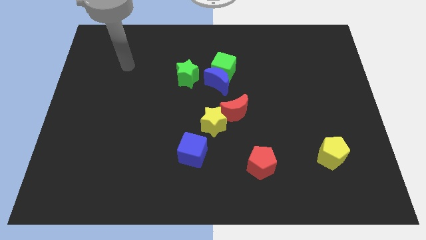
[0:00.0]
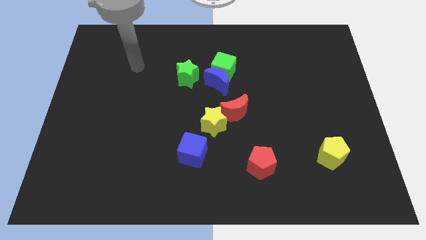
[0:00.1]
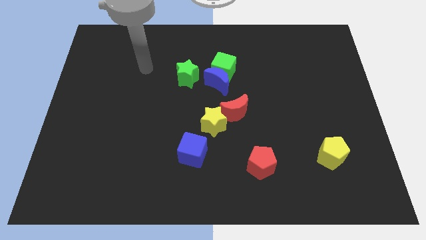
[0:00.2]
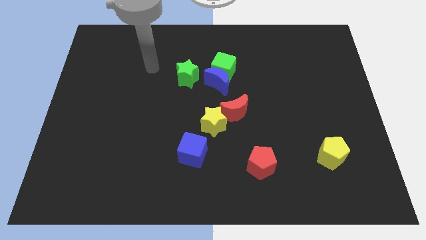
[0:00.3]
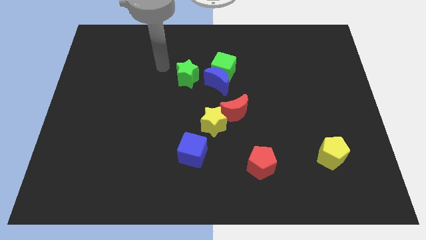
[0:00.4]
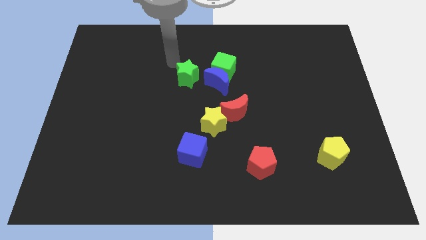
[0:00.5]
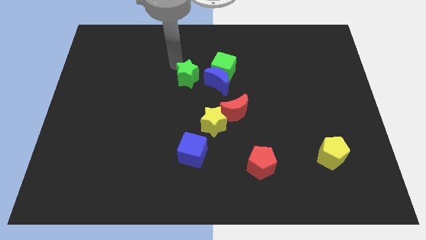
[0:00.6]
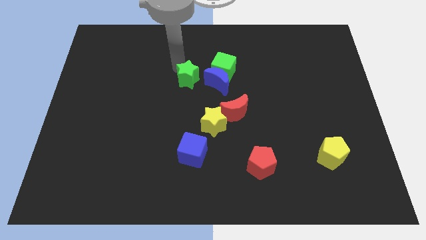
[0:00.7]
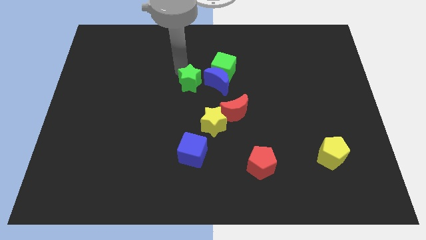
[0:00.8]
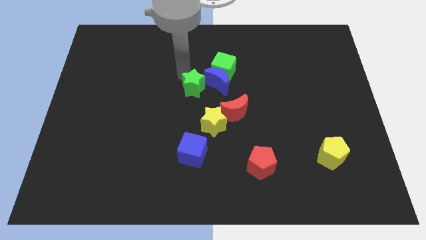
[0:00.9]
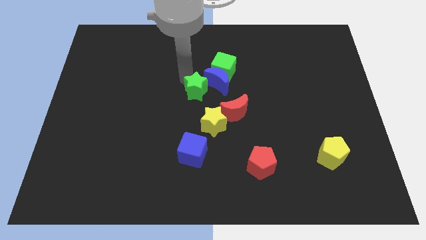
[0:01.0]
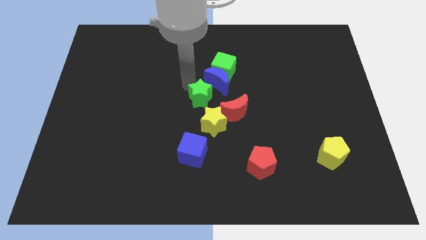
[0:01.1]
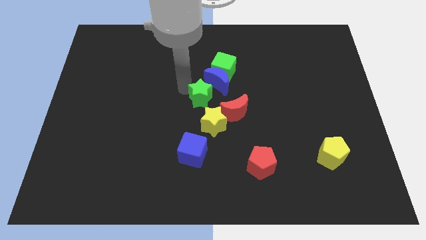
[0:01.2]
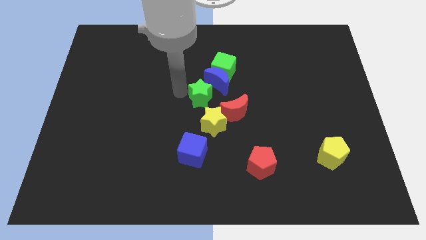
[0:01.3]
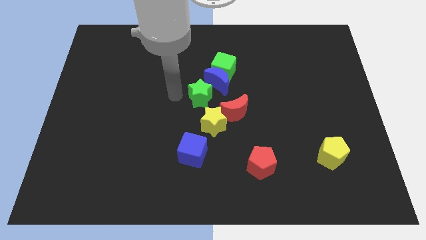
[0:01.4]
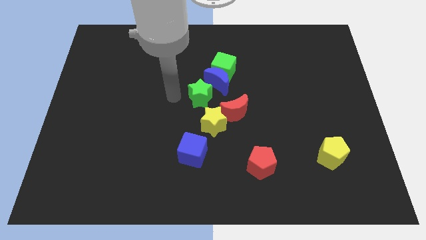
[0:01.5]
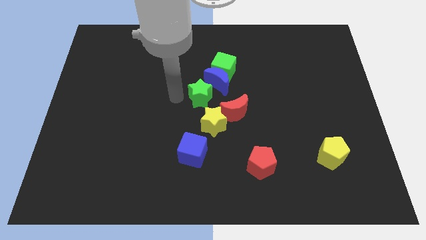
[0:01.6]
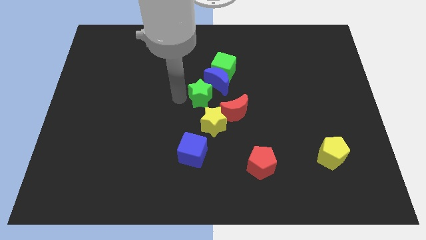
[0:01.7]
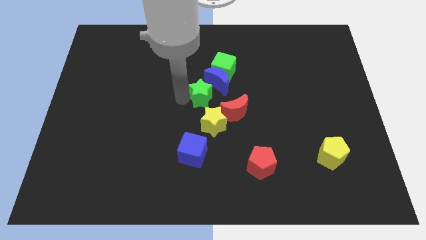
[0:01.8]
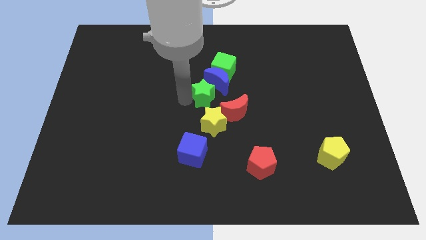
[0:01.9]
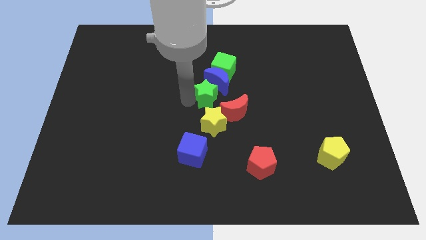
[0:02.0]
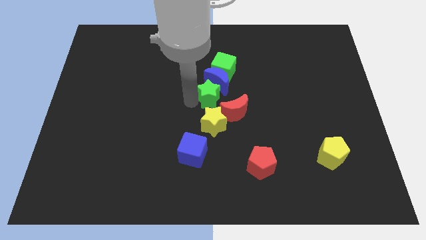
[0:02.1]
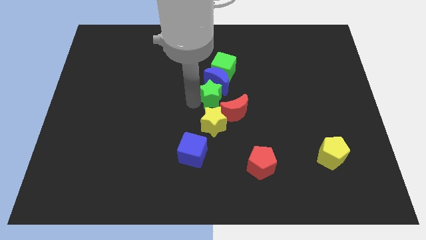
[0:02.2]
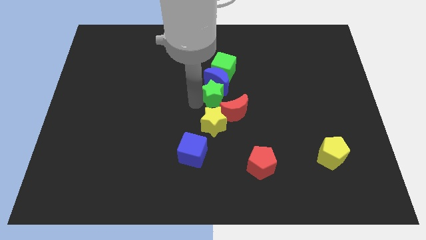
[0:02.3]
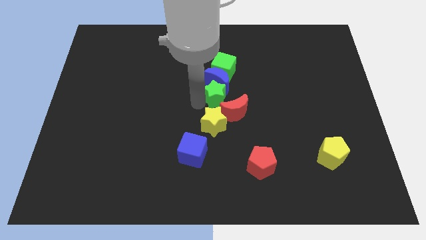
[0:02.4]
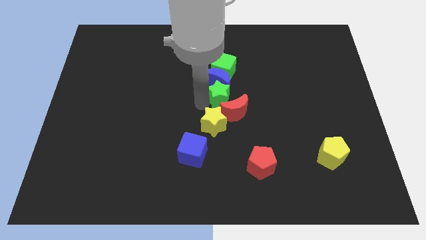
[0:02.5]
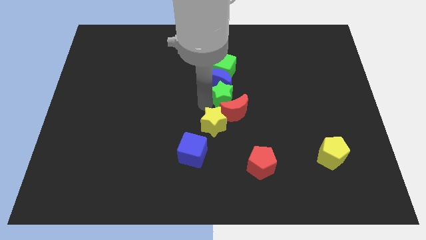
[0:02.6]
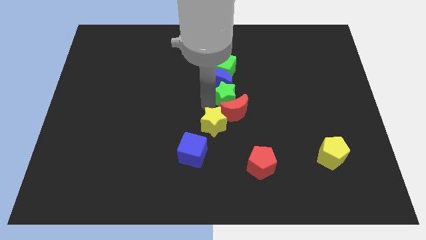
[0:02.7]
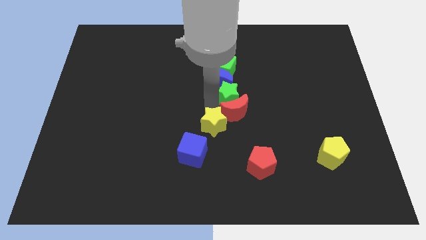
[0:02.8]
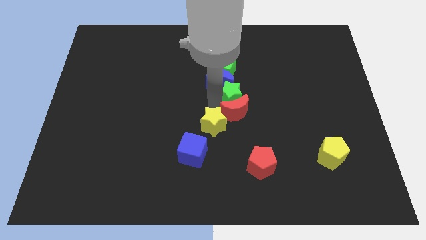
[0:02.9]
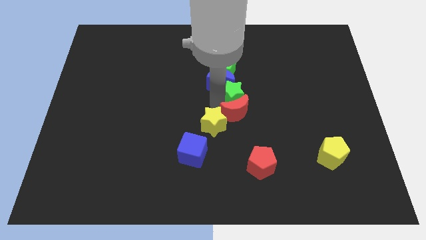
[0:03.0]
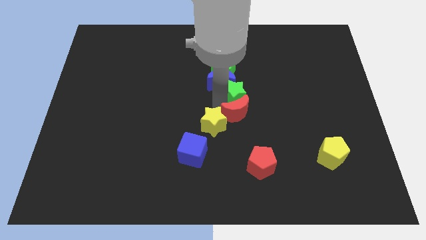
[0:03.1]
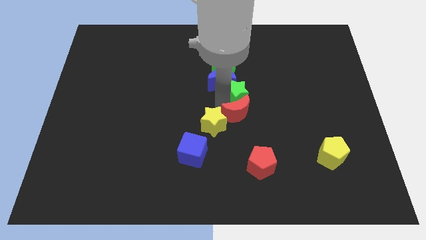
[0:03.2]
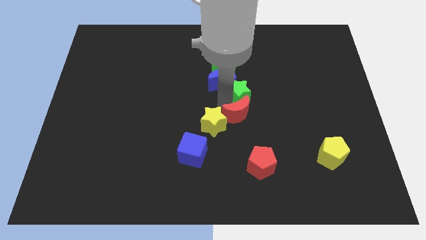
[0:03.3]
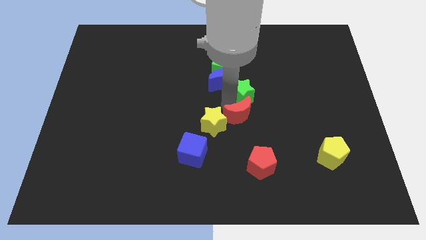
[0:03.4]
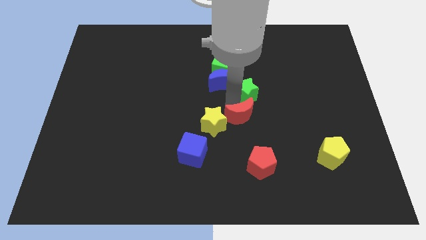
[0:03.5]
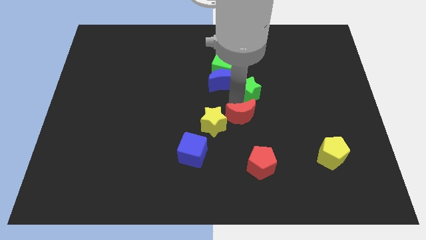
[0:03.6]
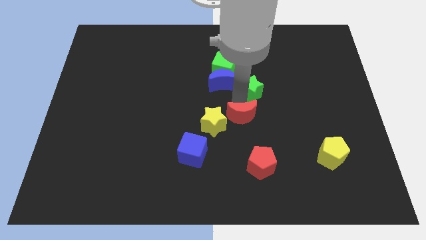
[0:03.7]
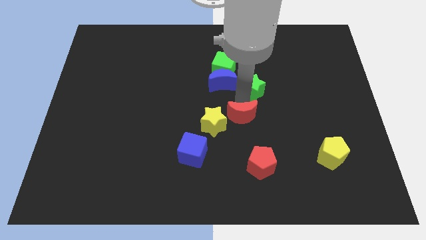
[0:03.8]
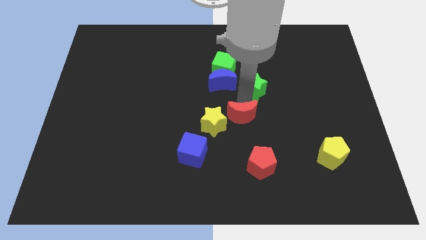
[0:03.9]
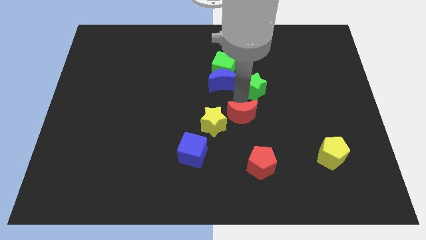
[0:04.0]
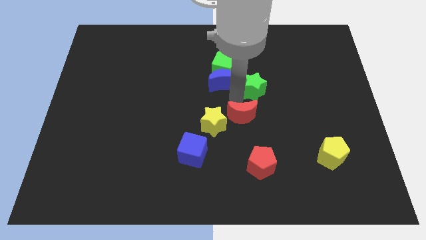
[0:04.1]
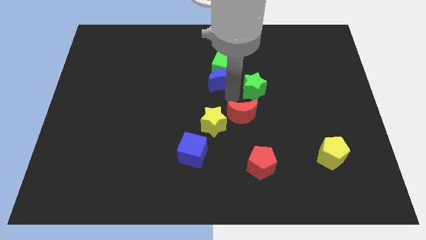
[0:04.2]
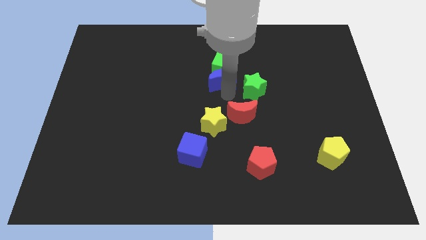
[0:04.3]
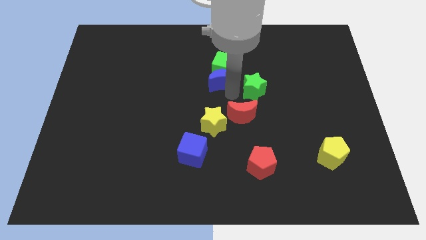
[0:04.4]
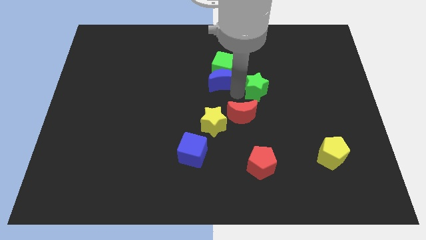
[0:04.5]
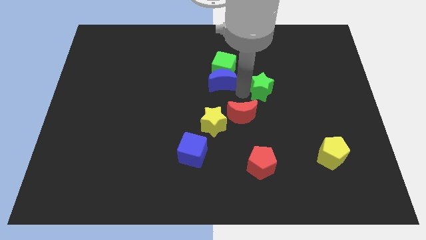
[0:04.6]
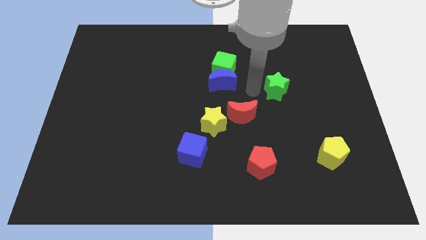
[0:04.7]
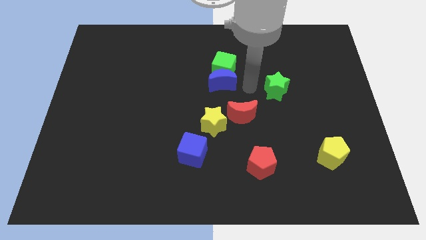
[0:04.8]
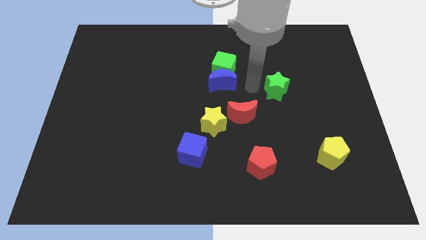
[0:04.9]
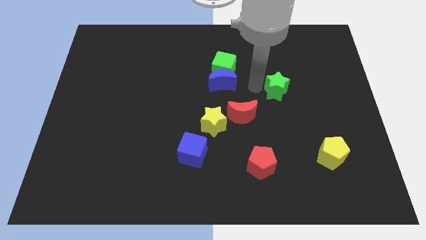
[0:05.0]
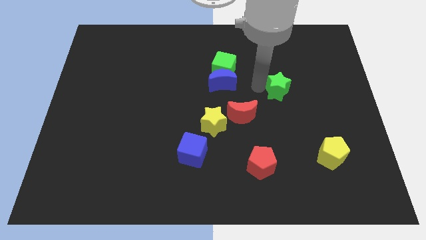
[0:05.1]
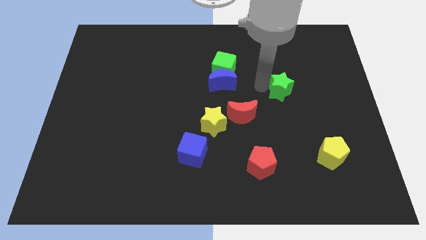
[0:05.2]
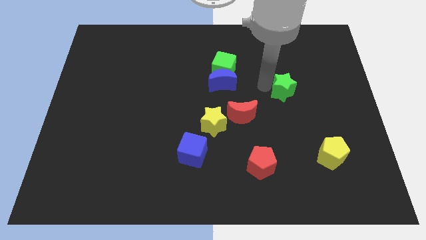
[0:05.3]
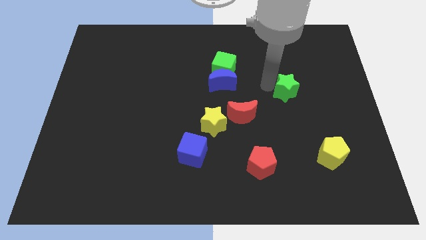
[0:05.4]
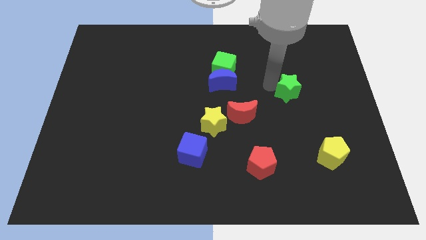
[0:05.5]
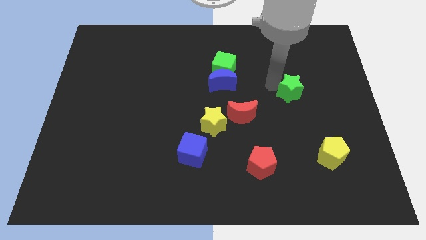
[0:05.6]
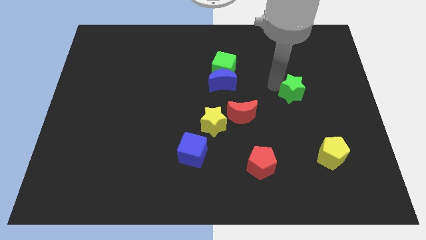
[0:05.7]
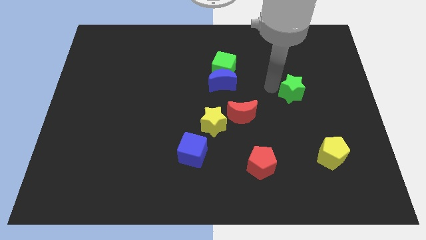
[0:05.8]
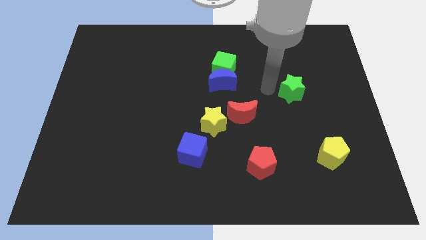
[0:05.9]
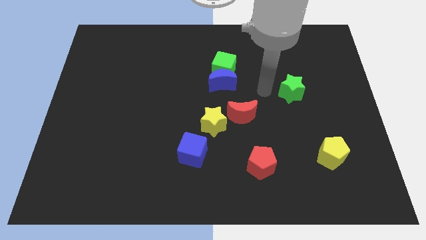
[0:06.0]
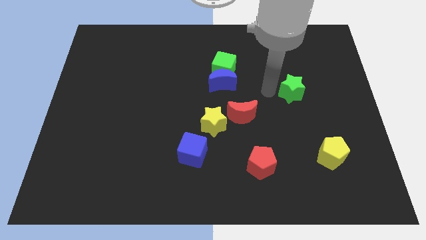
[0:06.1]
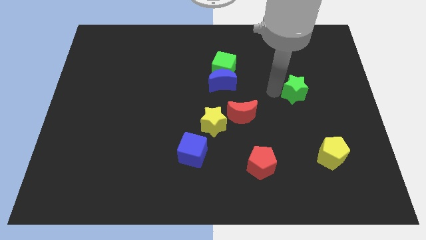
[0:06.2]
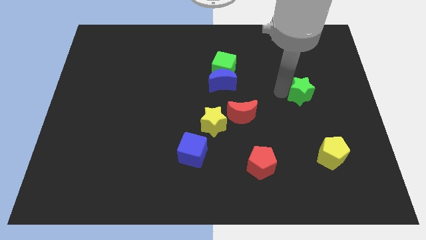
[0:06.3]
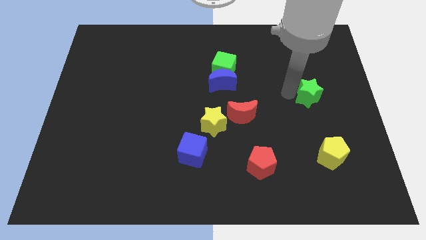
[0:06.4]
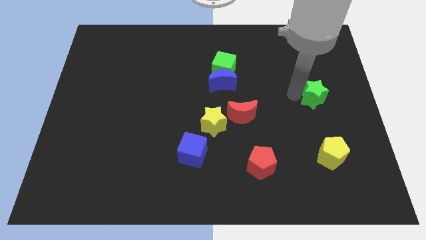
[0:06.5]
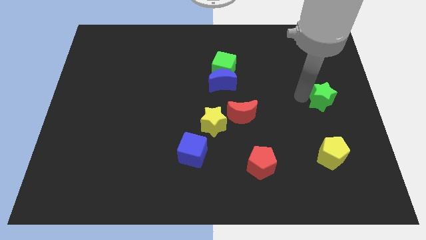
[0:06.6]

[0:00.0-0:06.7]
push the green star to the right side
